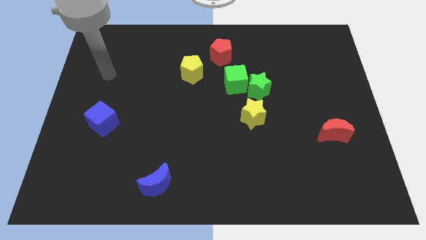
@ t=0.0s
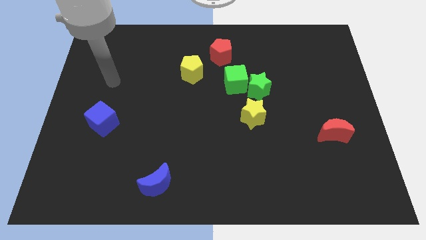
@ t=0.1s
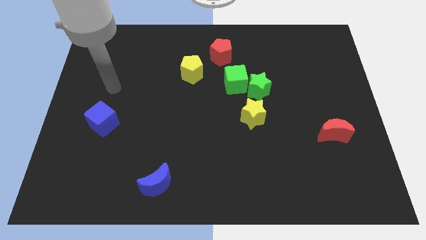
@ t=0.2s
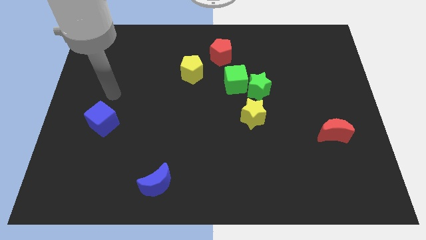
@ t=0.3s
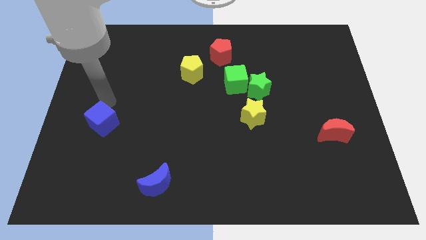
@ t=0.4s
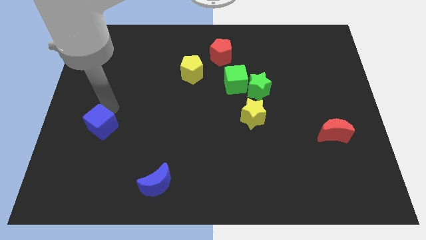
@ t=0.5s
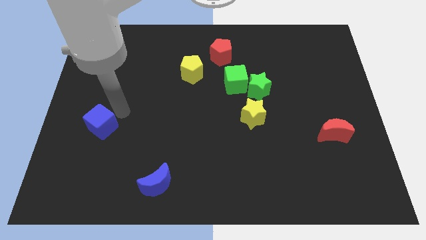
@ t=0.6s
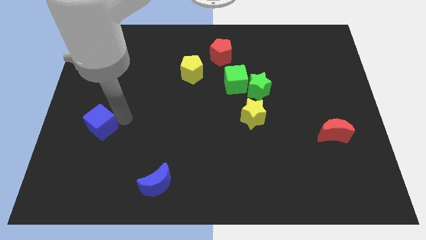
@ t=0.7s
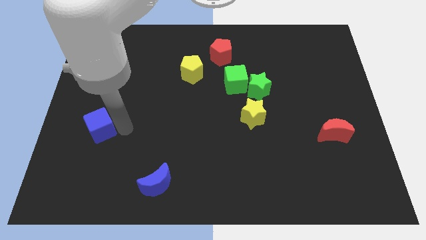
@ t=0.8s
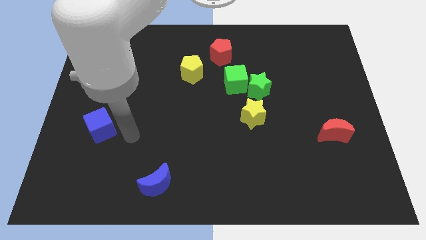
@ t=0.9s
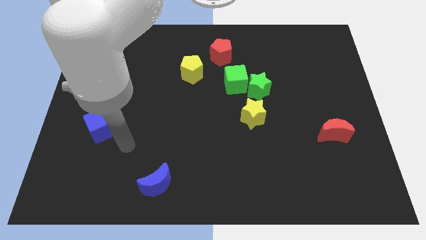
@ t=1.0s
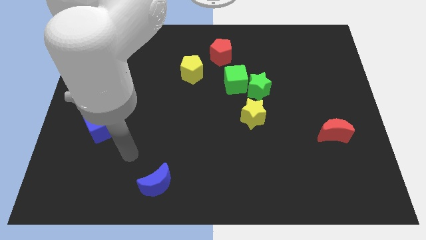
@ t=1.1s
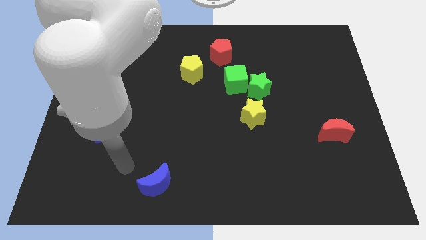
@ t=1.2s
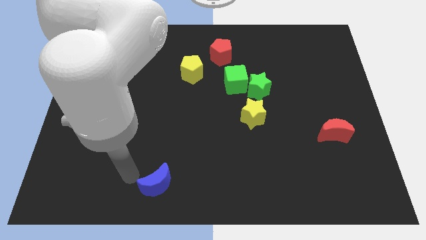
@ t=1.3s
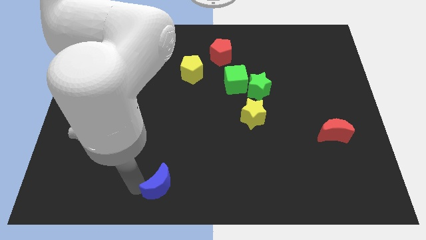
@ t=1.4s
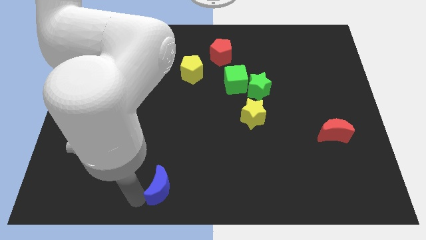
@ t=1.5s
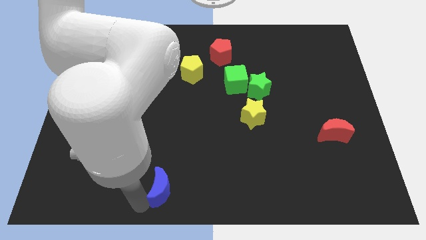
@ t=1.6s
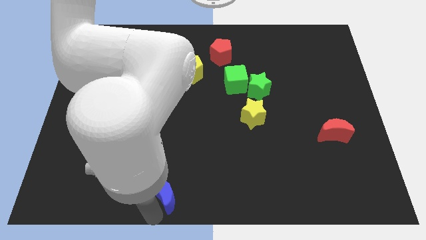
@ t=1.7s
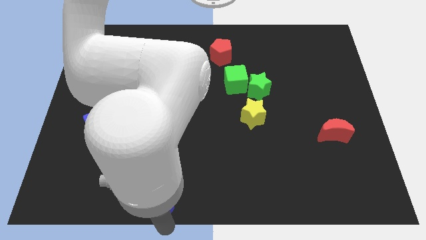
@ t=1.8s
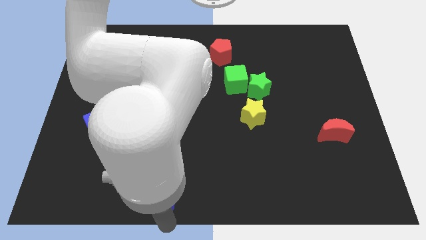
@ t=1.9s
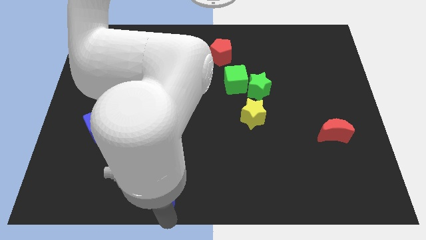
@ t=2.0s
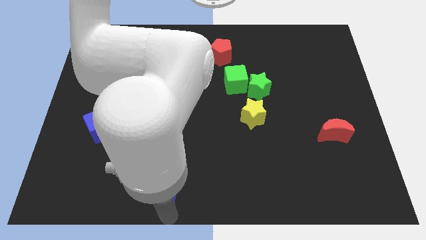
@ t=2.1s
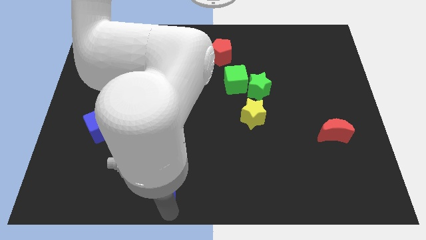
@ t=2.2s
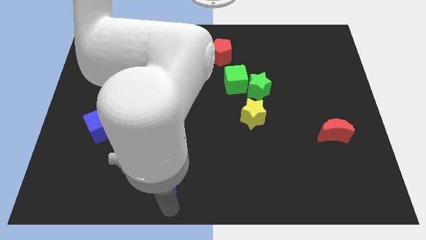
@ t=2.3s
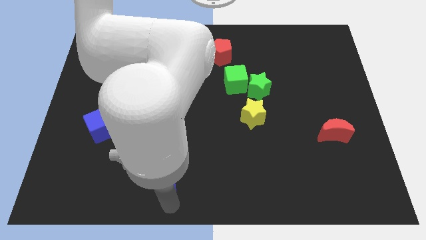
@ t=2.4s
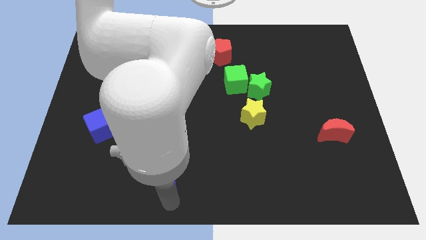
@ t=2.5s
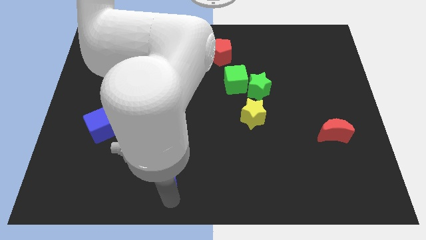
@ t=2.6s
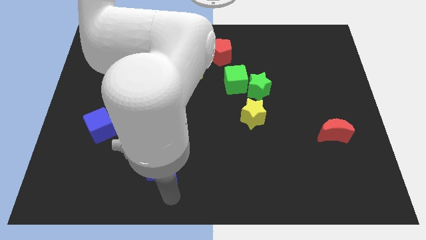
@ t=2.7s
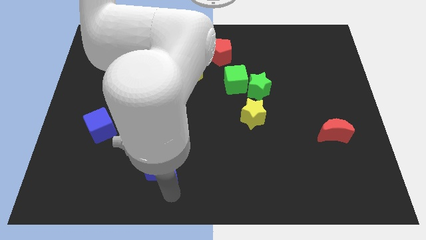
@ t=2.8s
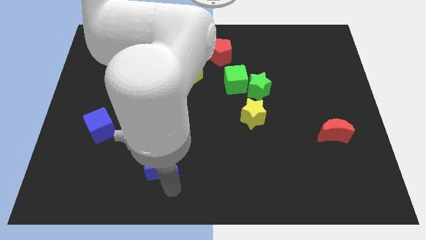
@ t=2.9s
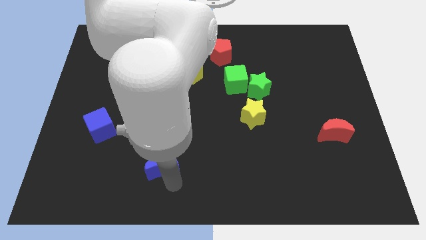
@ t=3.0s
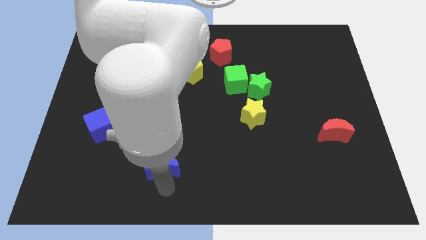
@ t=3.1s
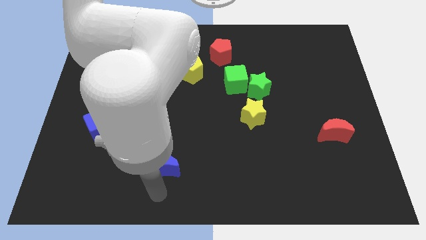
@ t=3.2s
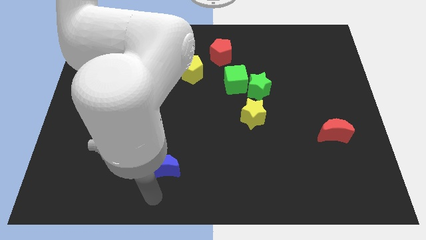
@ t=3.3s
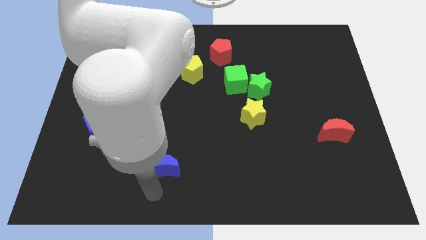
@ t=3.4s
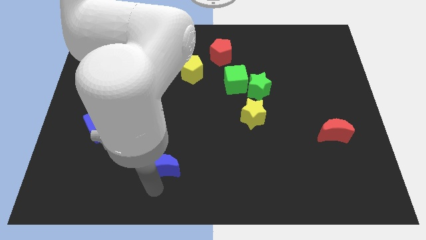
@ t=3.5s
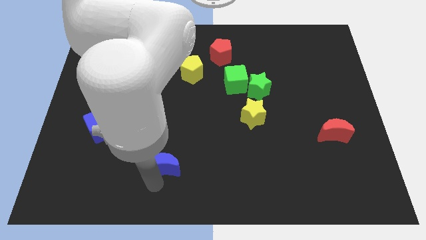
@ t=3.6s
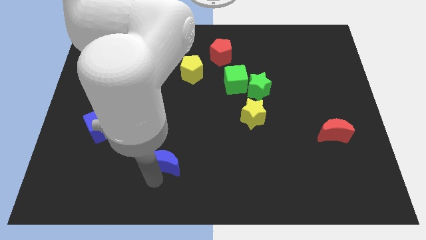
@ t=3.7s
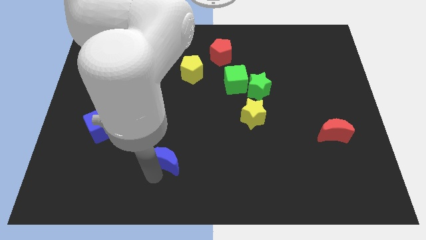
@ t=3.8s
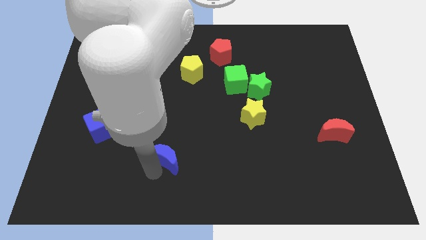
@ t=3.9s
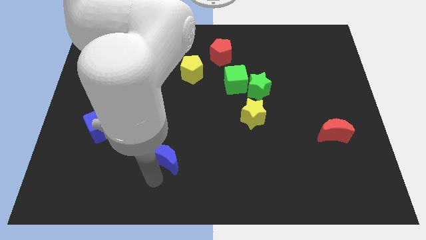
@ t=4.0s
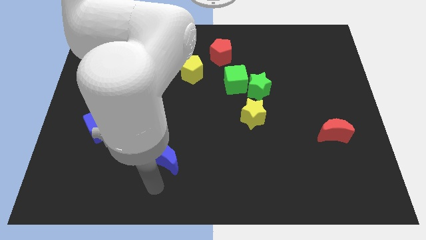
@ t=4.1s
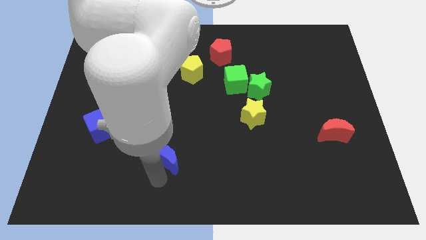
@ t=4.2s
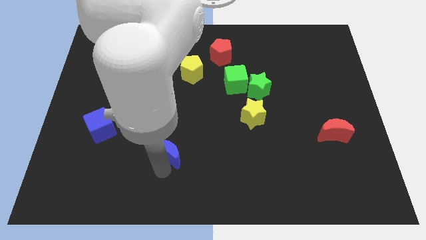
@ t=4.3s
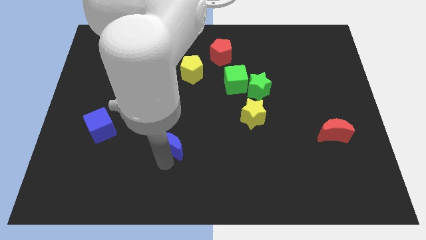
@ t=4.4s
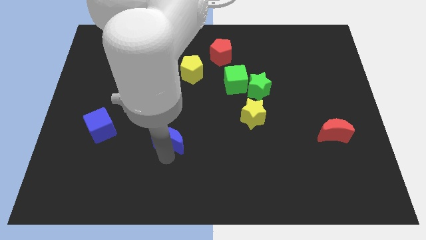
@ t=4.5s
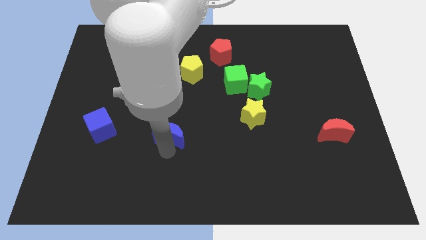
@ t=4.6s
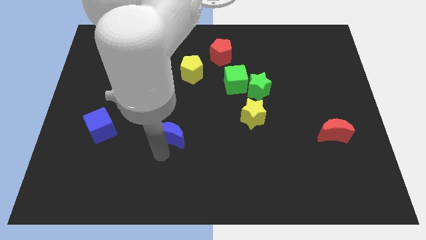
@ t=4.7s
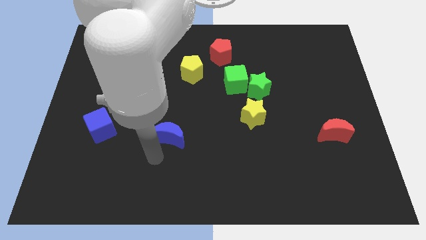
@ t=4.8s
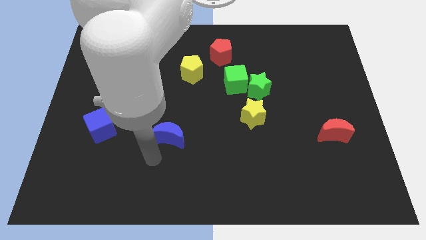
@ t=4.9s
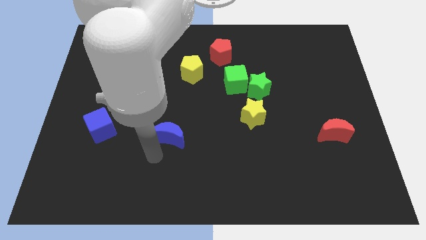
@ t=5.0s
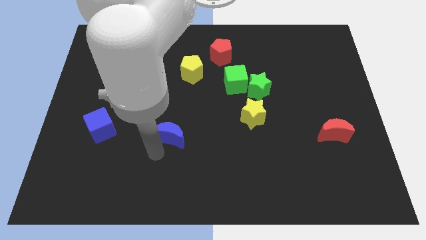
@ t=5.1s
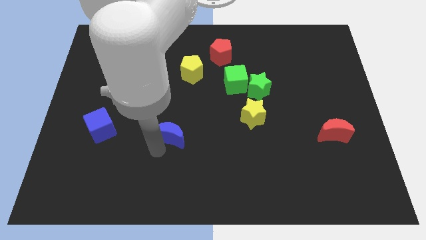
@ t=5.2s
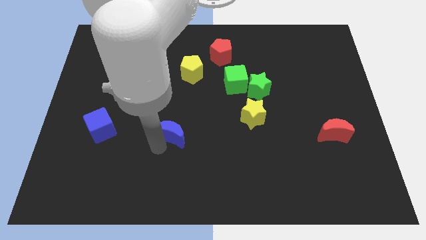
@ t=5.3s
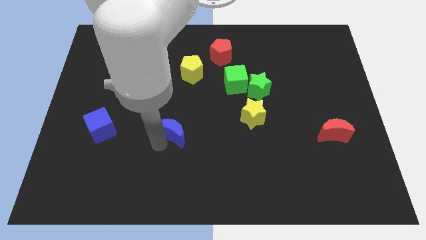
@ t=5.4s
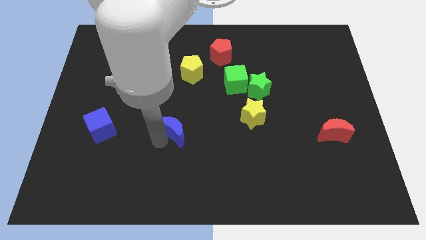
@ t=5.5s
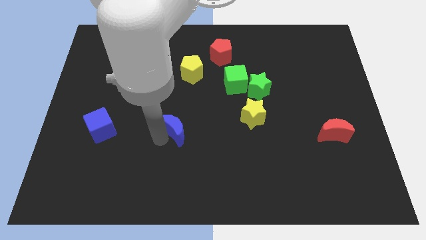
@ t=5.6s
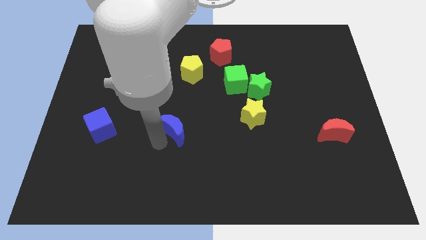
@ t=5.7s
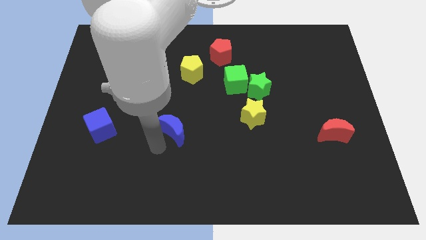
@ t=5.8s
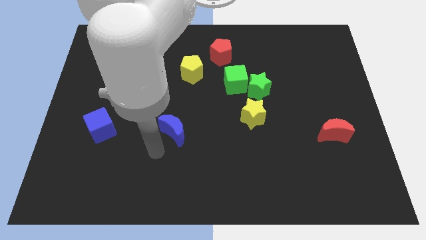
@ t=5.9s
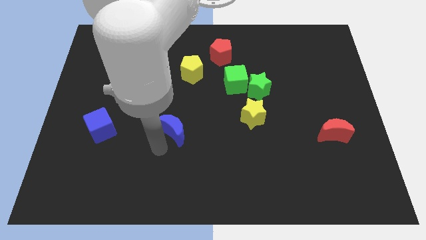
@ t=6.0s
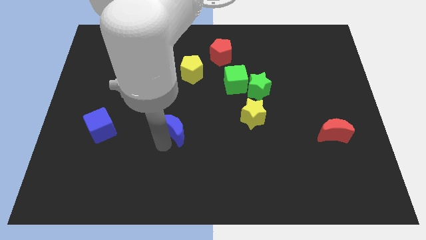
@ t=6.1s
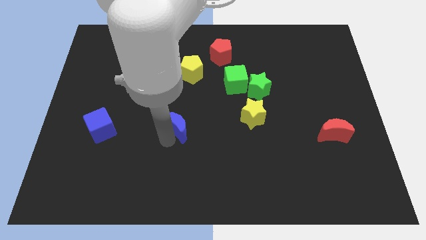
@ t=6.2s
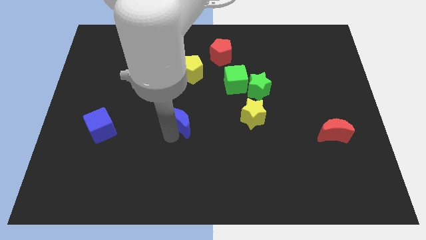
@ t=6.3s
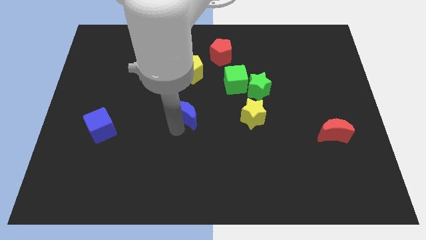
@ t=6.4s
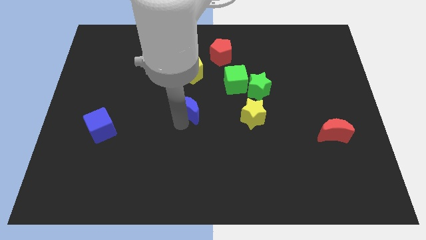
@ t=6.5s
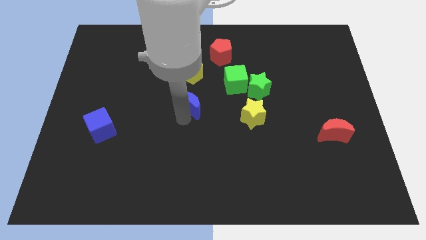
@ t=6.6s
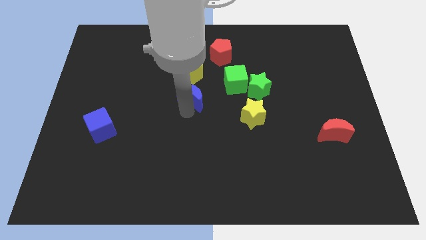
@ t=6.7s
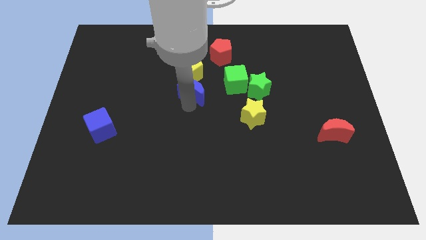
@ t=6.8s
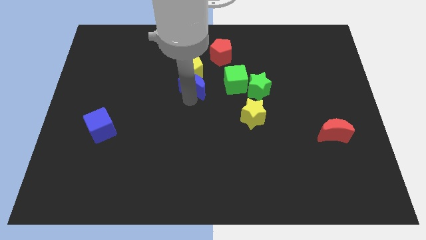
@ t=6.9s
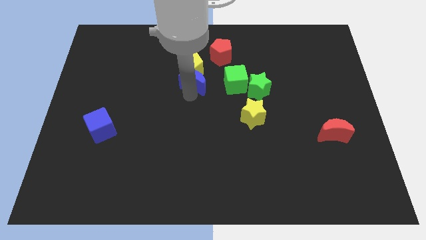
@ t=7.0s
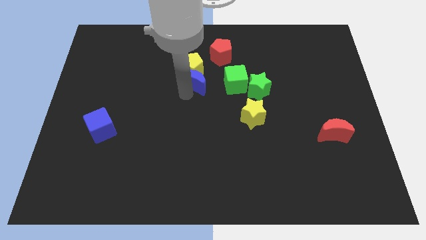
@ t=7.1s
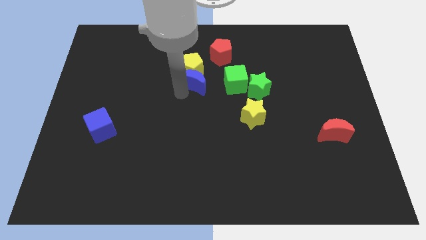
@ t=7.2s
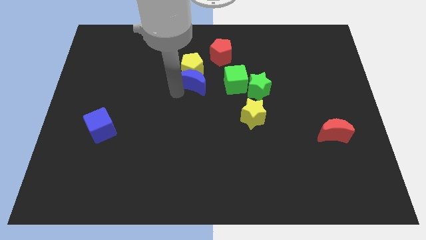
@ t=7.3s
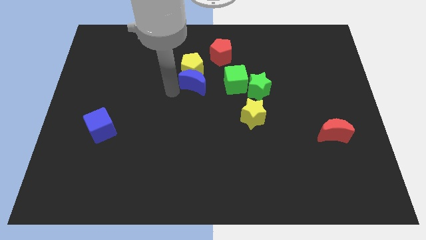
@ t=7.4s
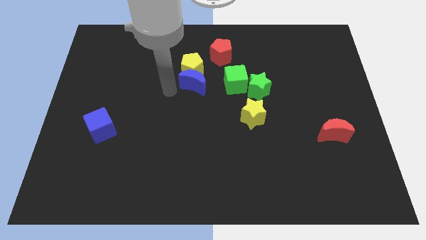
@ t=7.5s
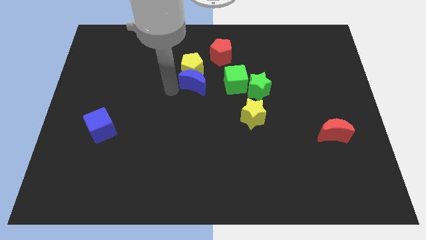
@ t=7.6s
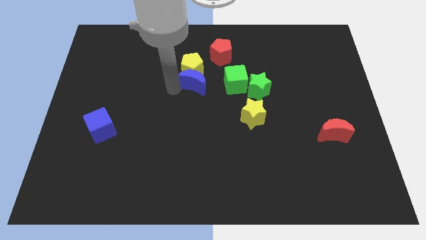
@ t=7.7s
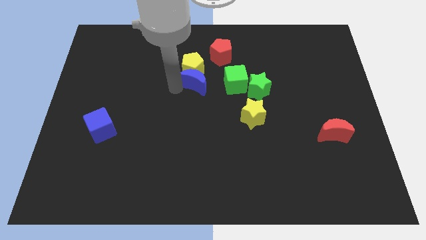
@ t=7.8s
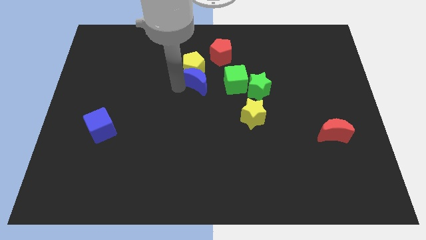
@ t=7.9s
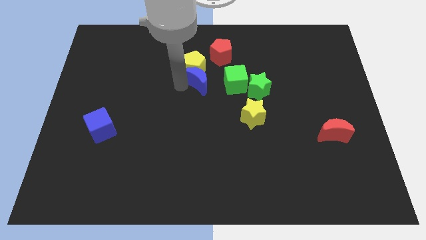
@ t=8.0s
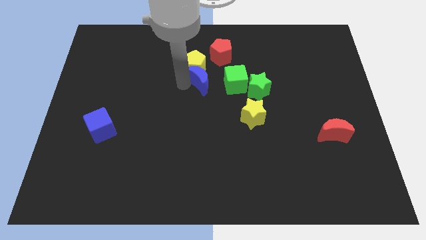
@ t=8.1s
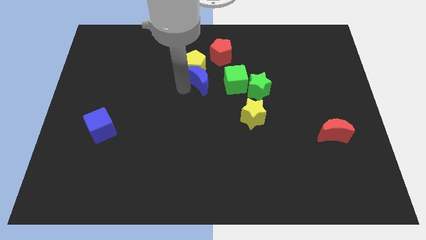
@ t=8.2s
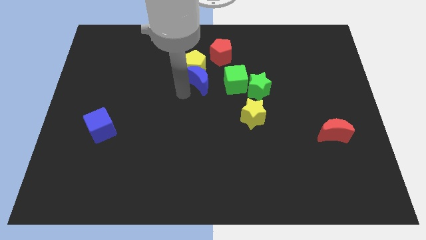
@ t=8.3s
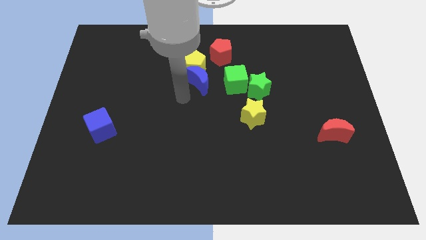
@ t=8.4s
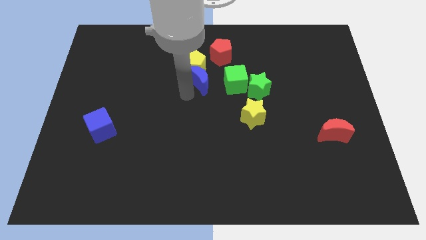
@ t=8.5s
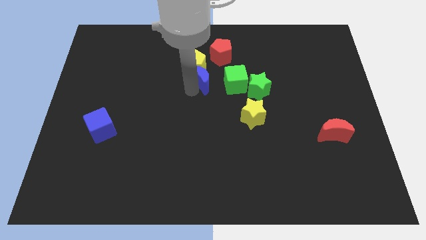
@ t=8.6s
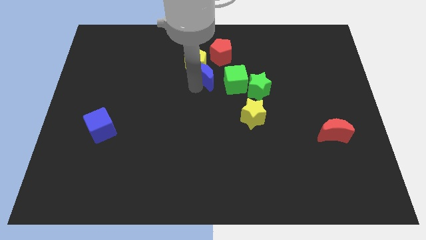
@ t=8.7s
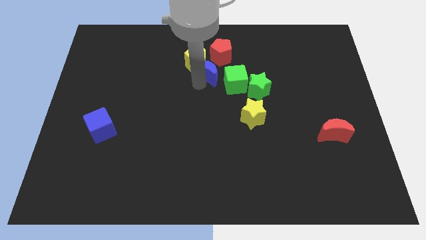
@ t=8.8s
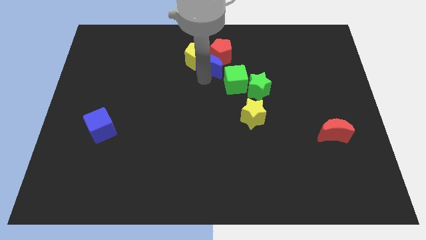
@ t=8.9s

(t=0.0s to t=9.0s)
push the blue moon next to the red pentagon
